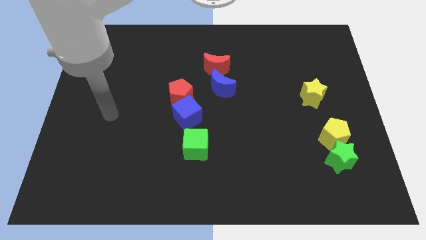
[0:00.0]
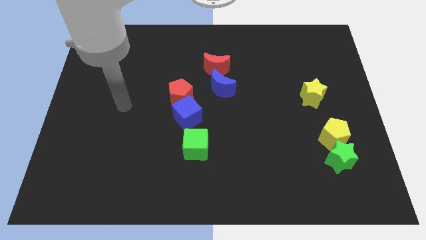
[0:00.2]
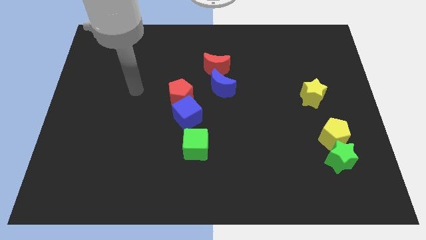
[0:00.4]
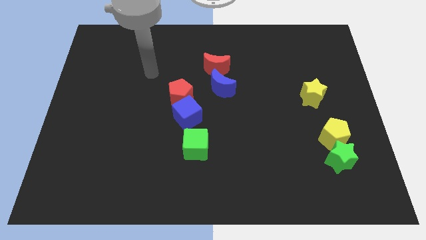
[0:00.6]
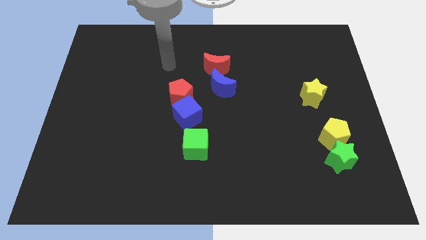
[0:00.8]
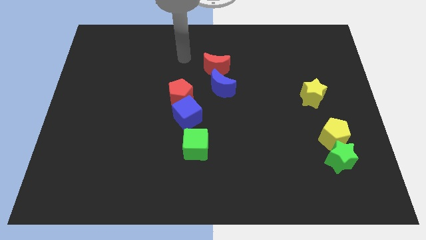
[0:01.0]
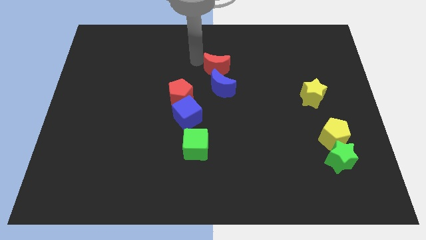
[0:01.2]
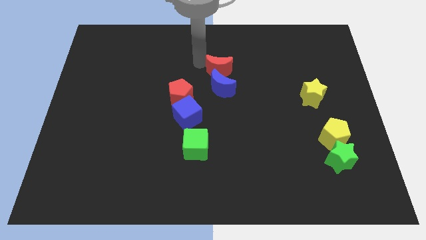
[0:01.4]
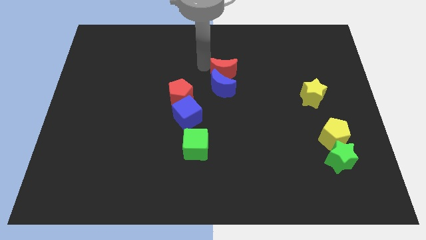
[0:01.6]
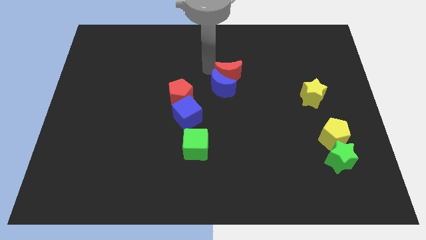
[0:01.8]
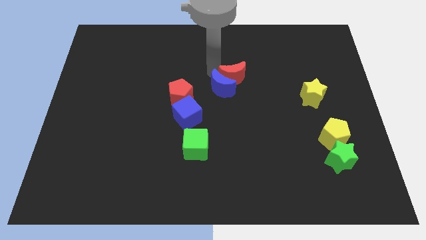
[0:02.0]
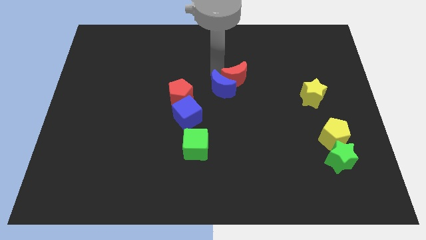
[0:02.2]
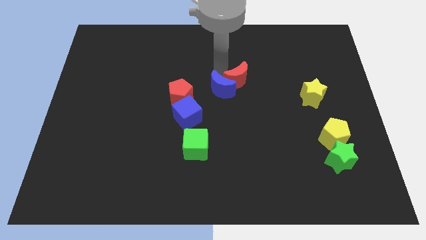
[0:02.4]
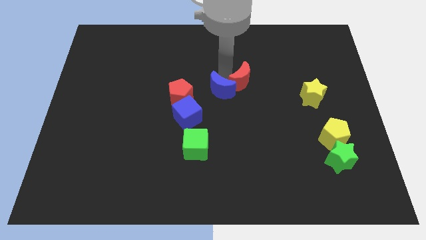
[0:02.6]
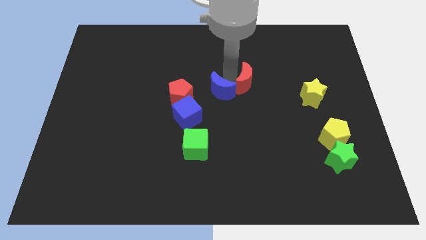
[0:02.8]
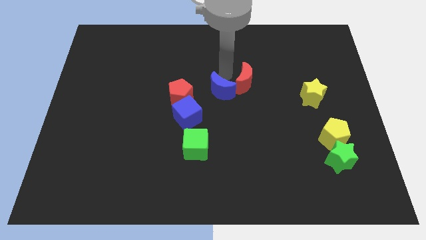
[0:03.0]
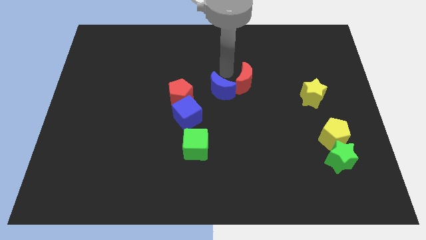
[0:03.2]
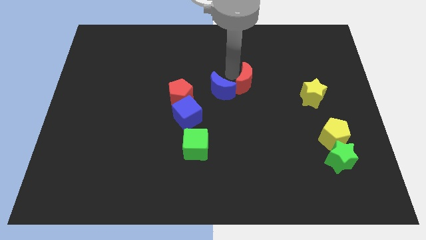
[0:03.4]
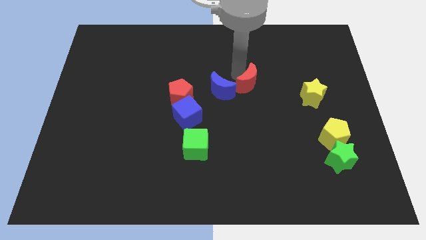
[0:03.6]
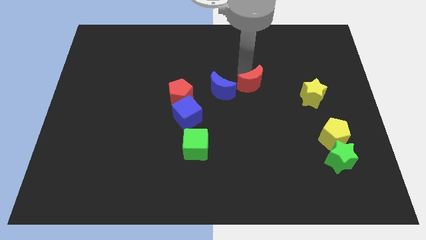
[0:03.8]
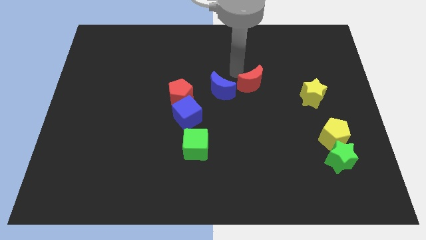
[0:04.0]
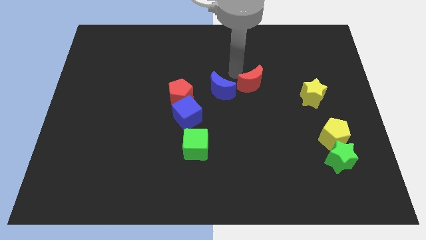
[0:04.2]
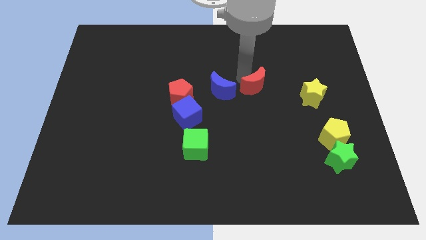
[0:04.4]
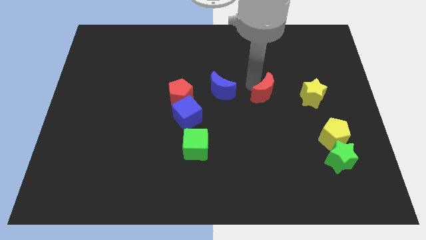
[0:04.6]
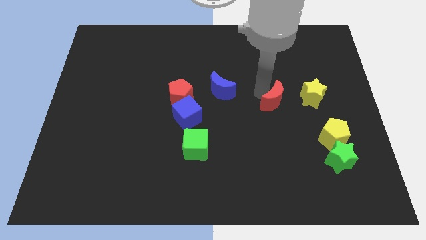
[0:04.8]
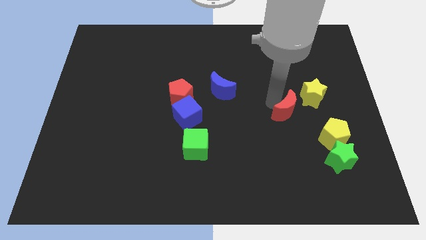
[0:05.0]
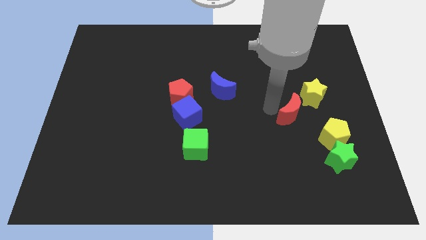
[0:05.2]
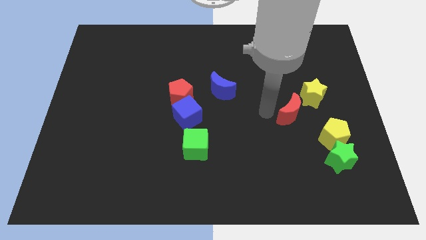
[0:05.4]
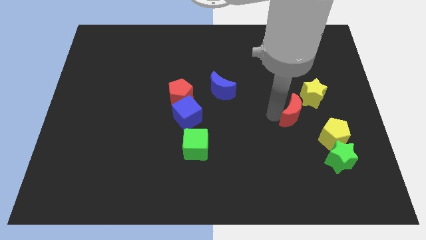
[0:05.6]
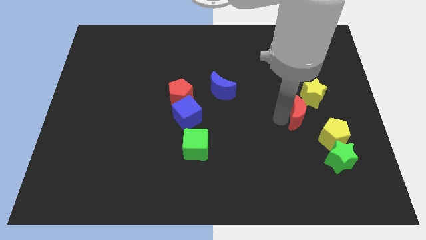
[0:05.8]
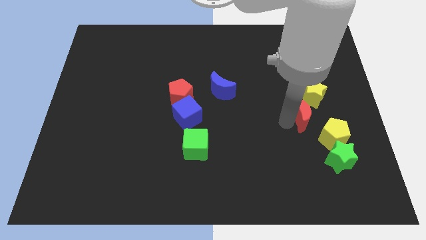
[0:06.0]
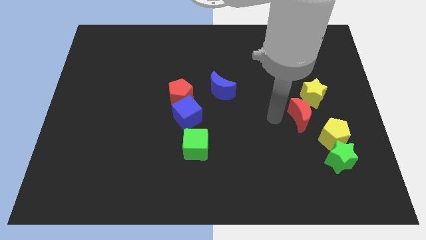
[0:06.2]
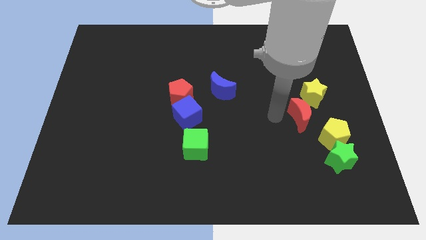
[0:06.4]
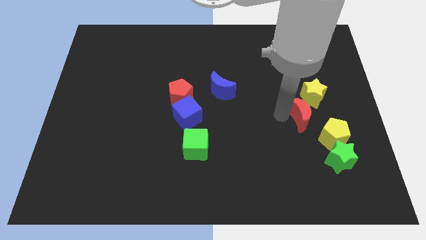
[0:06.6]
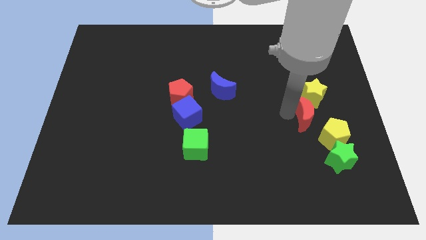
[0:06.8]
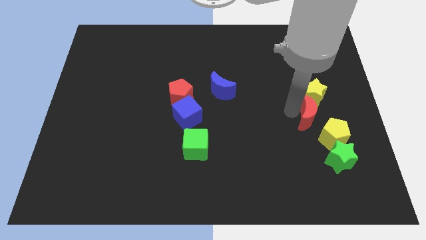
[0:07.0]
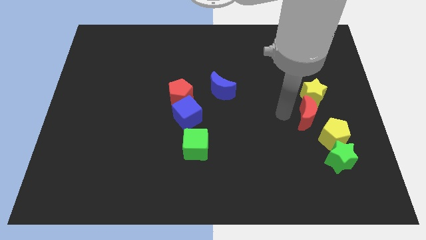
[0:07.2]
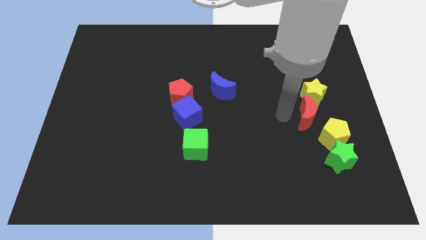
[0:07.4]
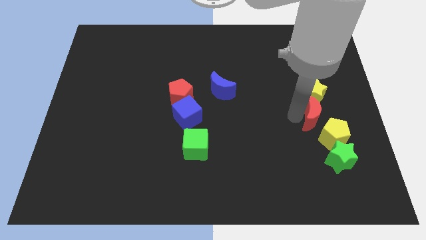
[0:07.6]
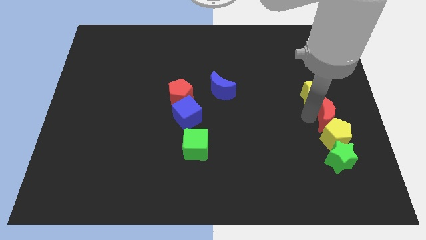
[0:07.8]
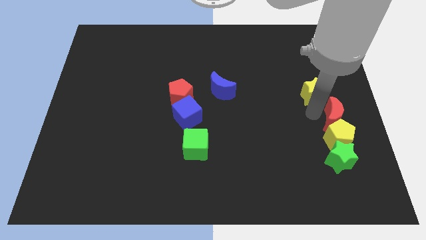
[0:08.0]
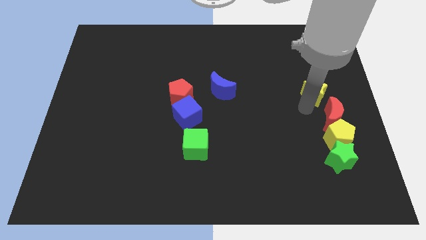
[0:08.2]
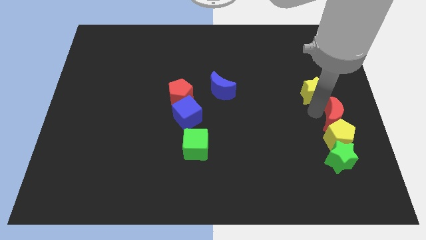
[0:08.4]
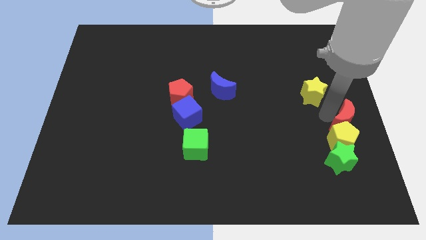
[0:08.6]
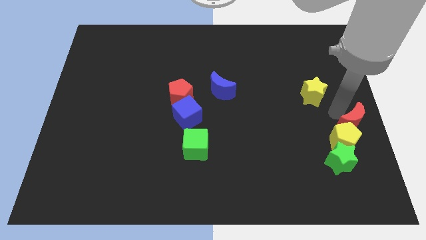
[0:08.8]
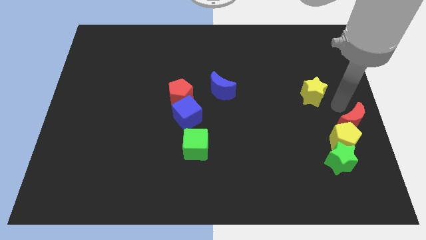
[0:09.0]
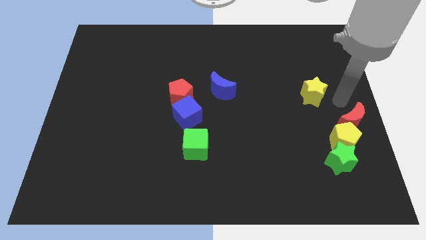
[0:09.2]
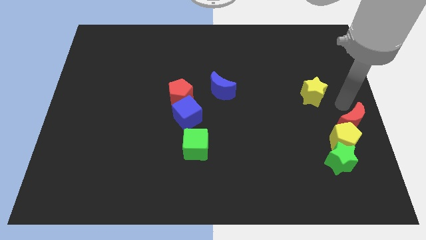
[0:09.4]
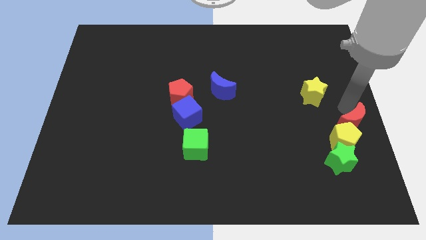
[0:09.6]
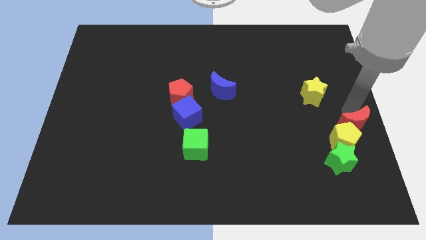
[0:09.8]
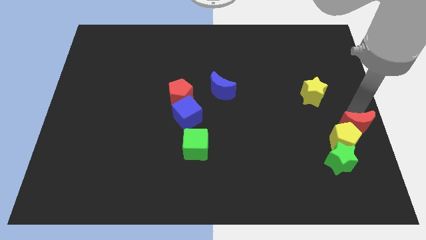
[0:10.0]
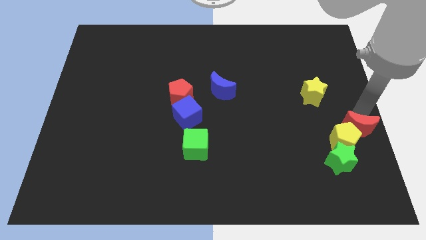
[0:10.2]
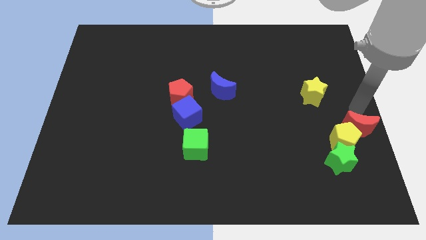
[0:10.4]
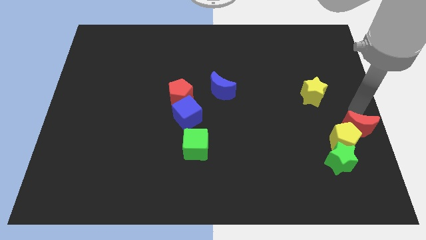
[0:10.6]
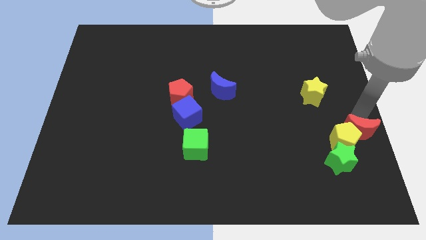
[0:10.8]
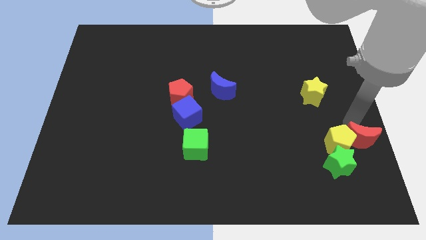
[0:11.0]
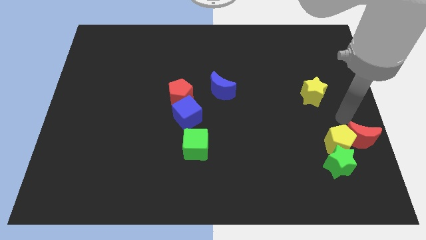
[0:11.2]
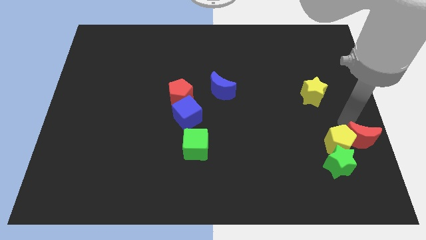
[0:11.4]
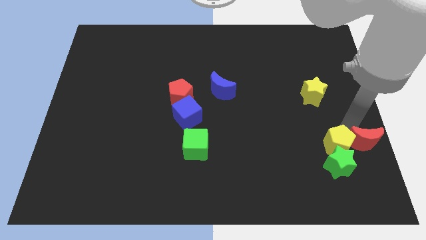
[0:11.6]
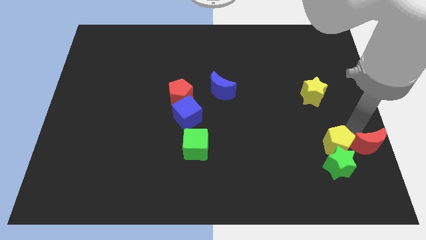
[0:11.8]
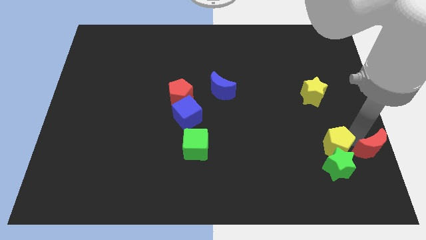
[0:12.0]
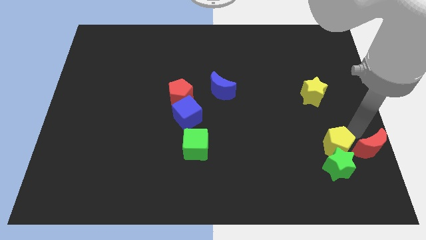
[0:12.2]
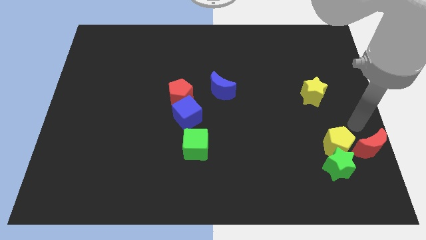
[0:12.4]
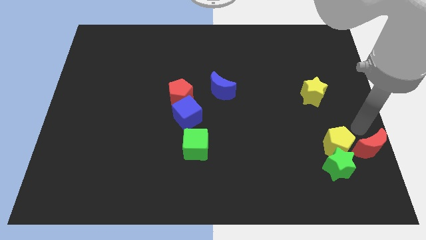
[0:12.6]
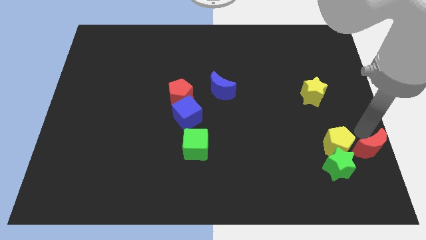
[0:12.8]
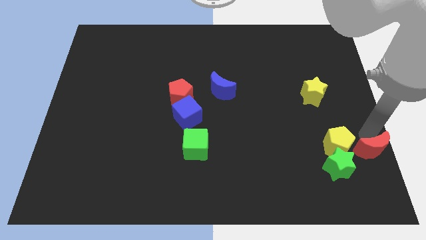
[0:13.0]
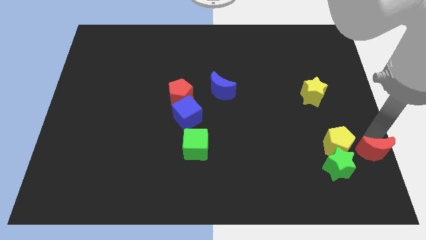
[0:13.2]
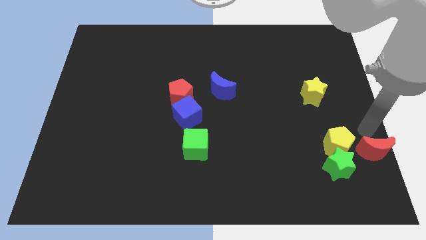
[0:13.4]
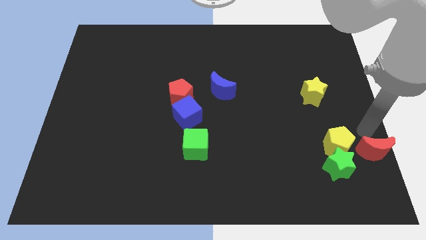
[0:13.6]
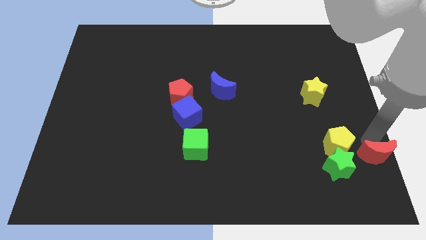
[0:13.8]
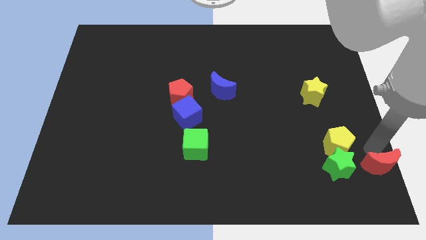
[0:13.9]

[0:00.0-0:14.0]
move the red moon to the bottom right of the board

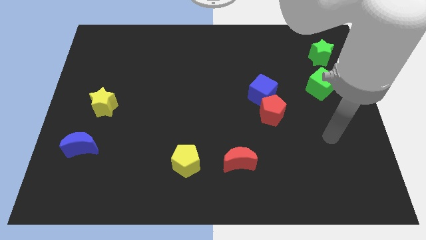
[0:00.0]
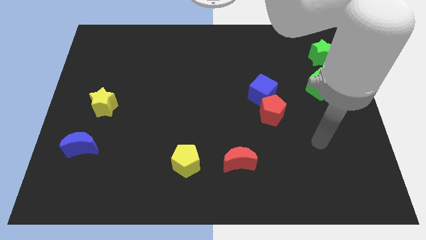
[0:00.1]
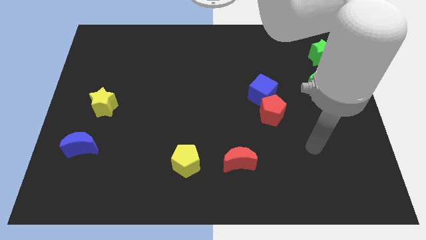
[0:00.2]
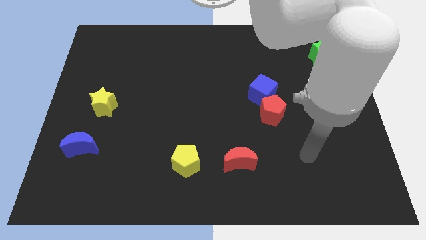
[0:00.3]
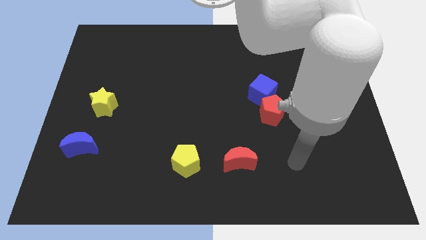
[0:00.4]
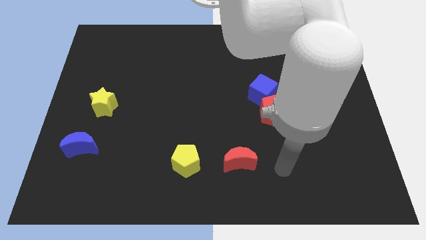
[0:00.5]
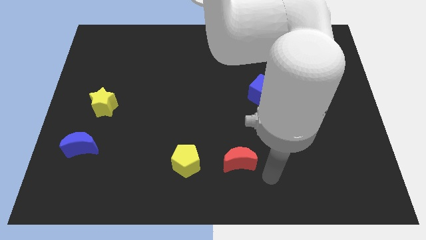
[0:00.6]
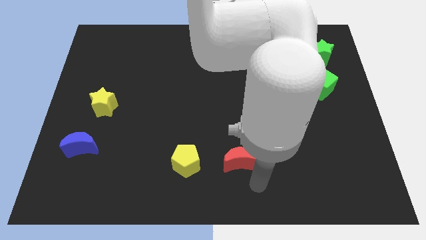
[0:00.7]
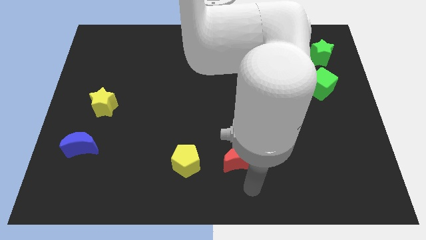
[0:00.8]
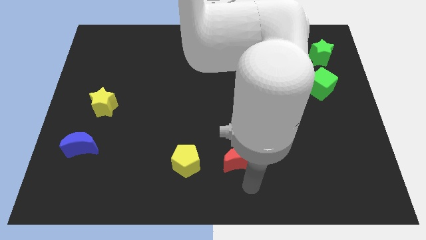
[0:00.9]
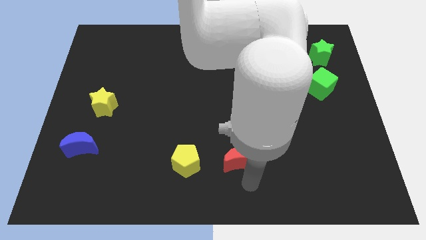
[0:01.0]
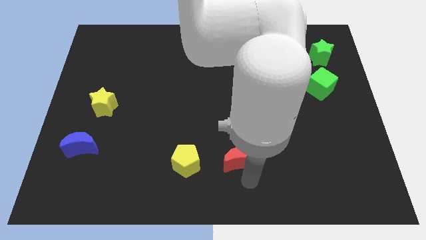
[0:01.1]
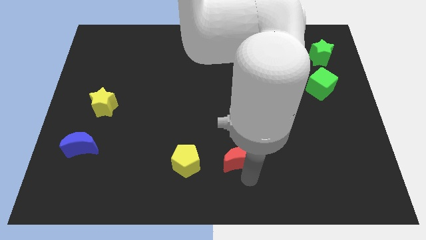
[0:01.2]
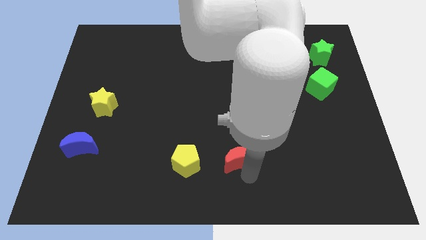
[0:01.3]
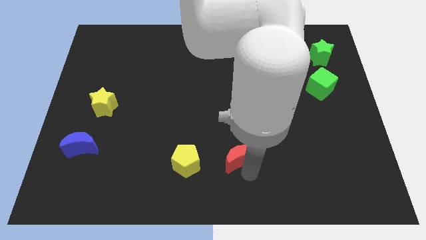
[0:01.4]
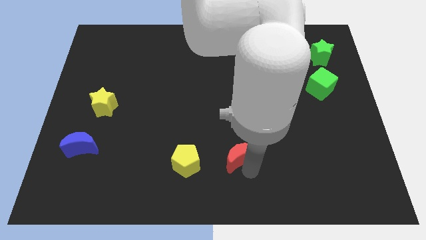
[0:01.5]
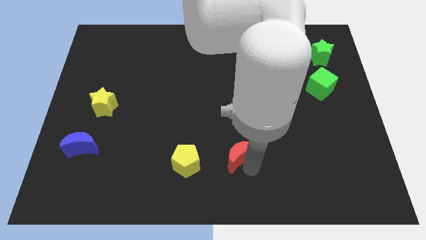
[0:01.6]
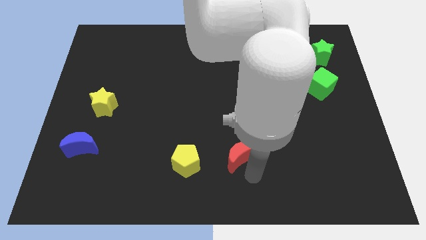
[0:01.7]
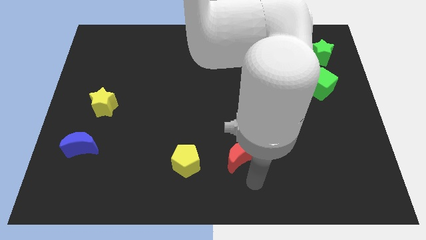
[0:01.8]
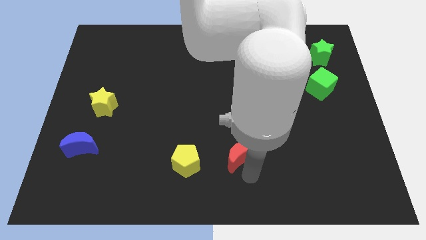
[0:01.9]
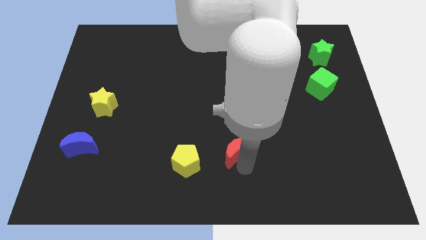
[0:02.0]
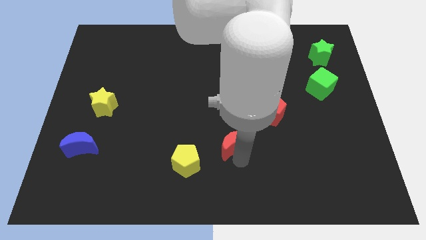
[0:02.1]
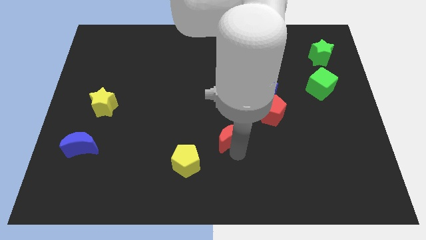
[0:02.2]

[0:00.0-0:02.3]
put the red moon to the center of the board
